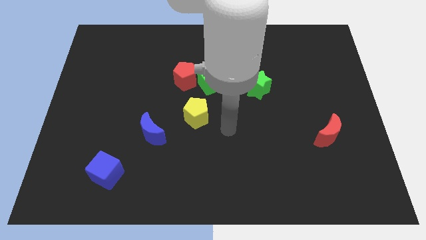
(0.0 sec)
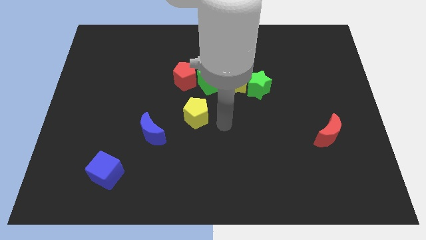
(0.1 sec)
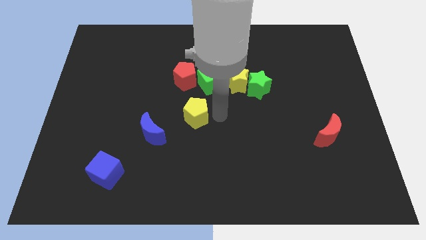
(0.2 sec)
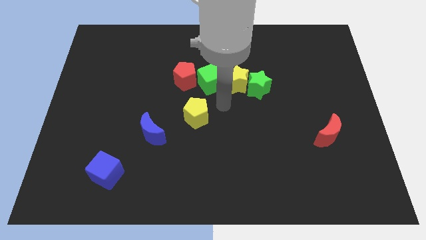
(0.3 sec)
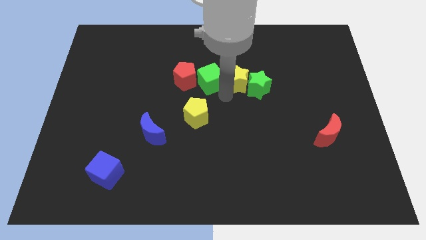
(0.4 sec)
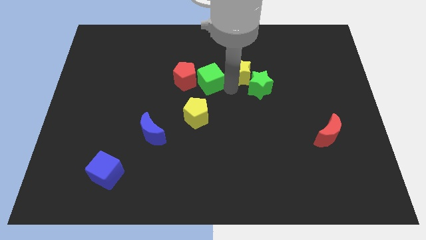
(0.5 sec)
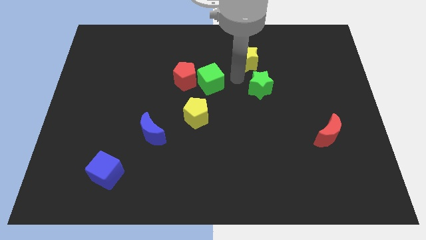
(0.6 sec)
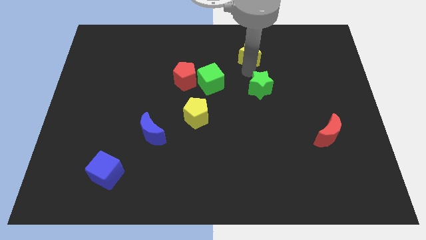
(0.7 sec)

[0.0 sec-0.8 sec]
move the green star away from the yellow star

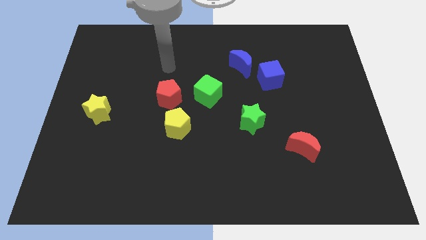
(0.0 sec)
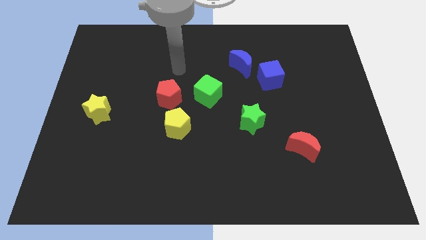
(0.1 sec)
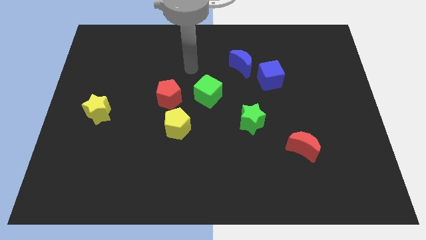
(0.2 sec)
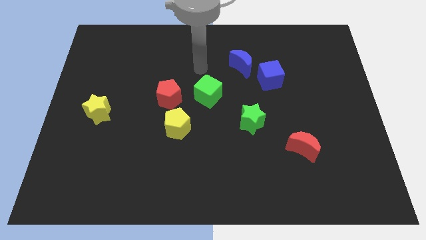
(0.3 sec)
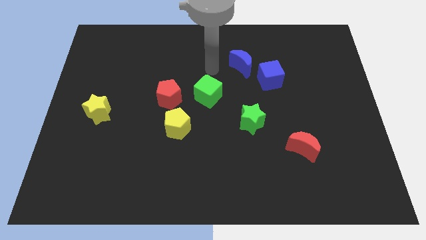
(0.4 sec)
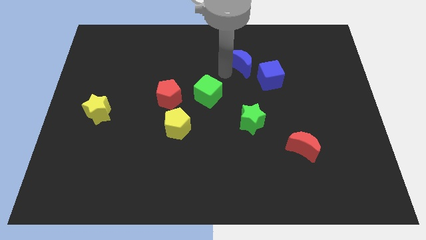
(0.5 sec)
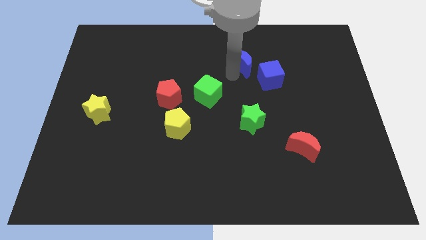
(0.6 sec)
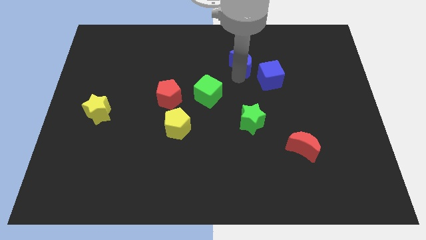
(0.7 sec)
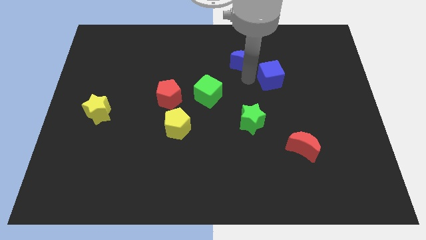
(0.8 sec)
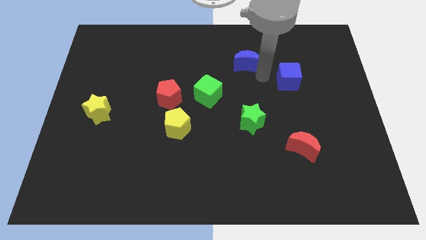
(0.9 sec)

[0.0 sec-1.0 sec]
pull the blue moon apart from the blue cube

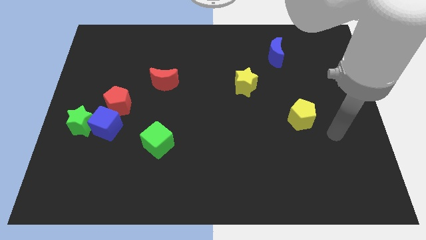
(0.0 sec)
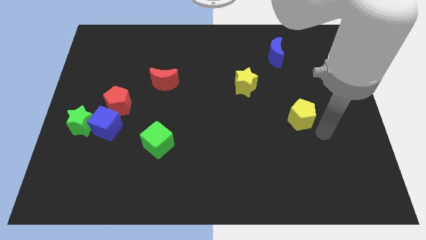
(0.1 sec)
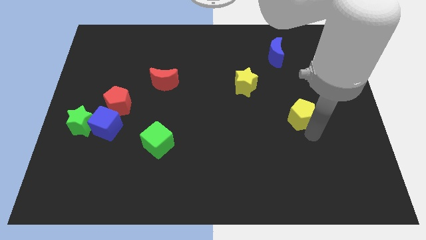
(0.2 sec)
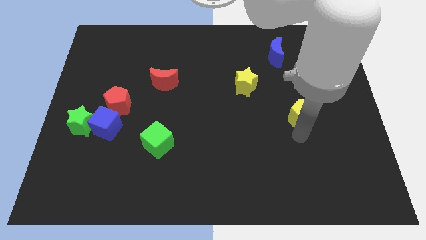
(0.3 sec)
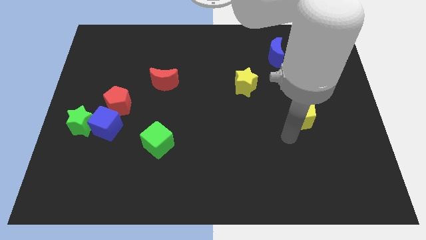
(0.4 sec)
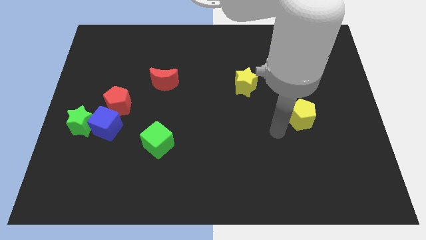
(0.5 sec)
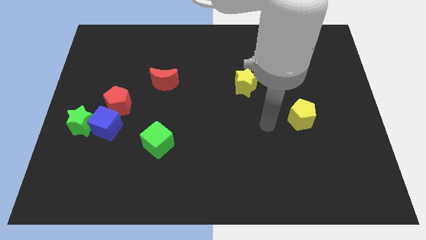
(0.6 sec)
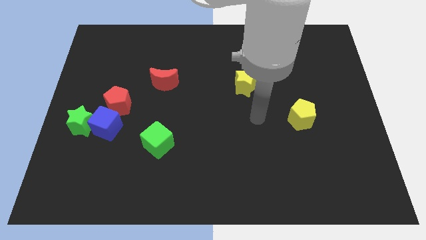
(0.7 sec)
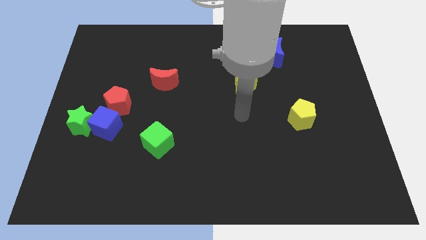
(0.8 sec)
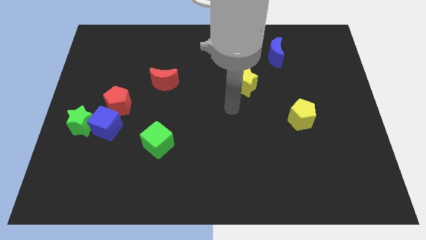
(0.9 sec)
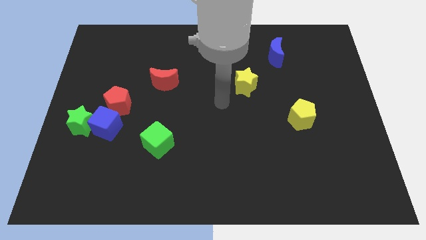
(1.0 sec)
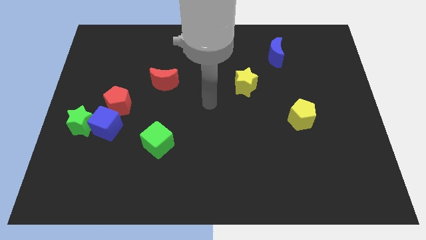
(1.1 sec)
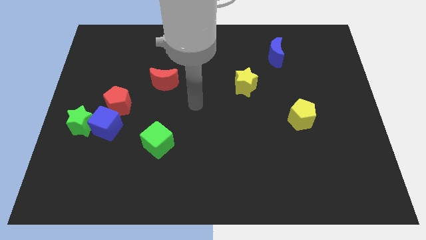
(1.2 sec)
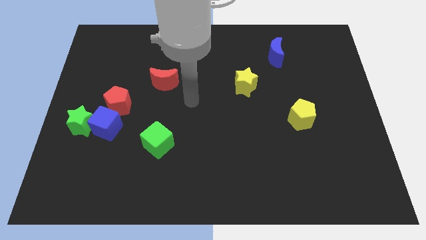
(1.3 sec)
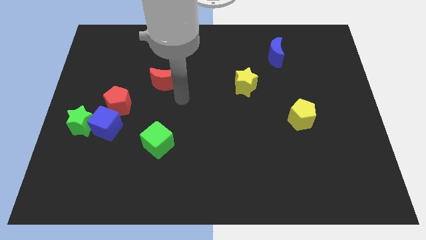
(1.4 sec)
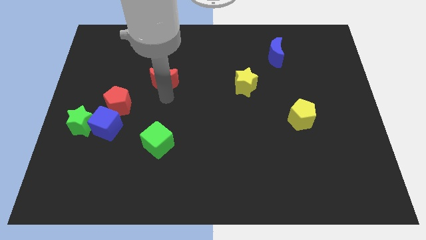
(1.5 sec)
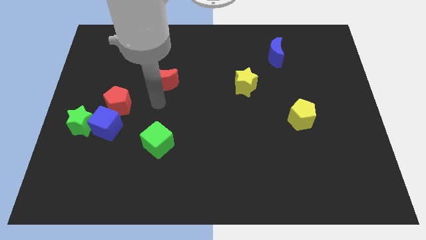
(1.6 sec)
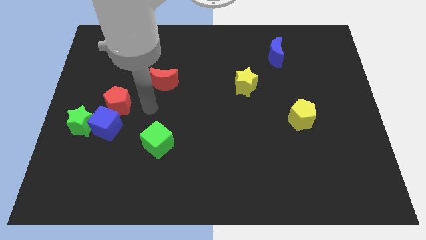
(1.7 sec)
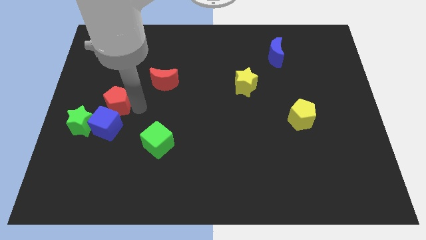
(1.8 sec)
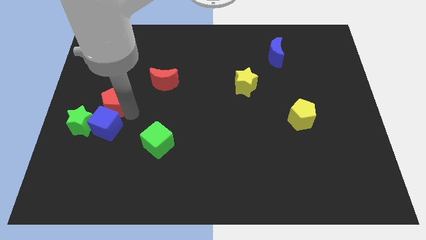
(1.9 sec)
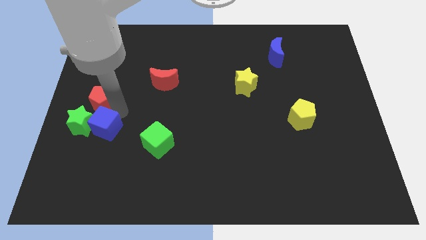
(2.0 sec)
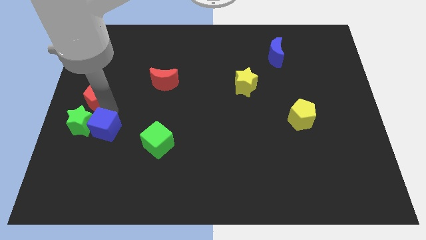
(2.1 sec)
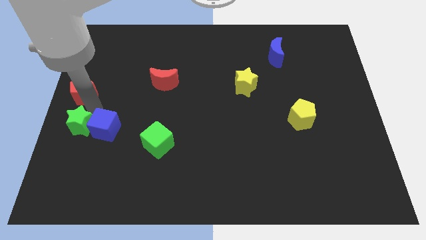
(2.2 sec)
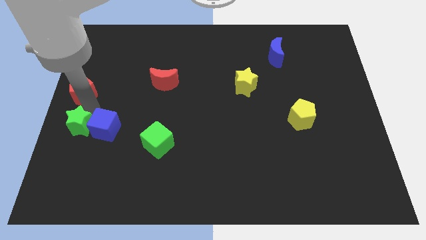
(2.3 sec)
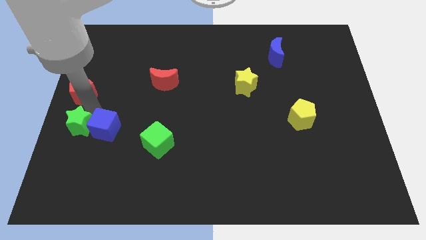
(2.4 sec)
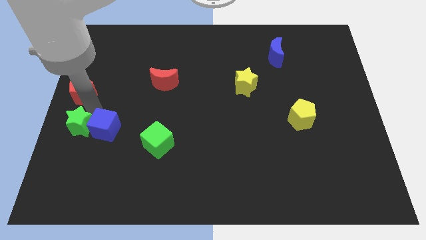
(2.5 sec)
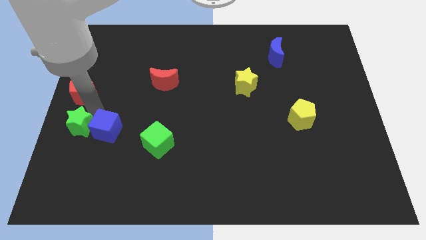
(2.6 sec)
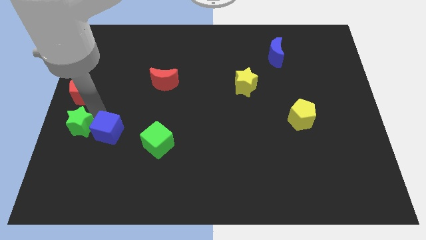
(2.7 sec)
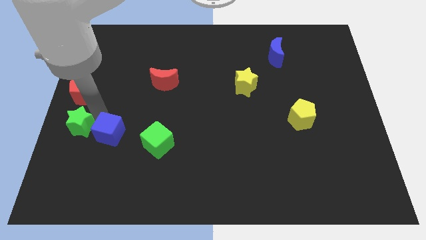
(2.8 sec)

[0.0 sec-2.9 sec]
separate the blue cube from the green star and red pentagon

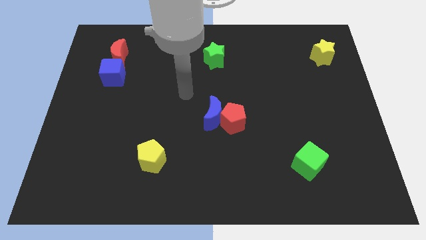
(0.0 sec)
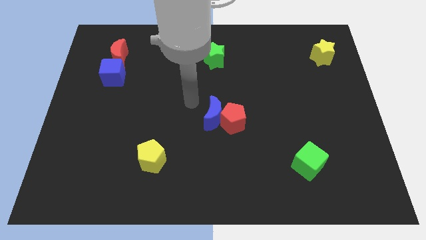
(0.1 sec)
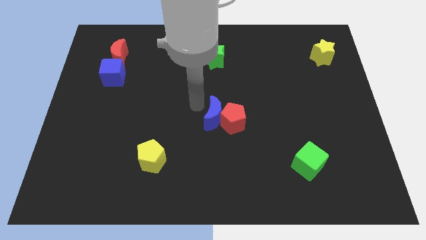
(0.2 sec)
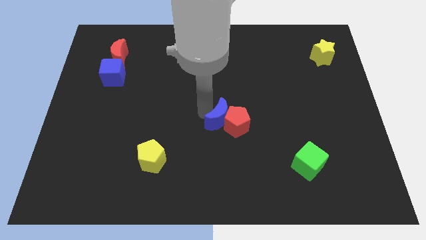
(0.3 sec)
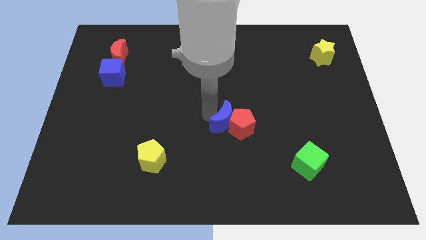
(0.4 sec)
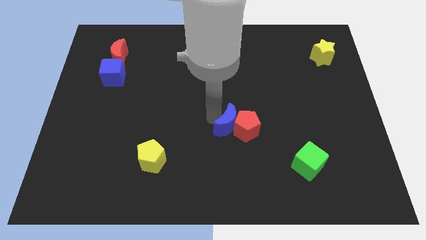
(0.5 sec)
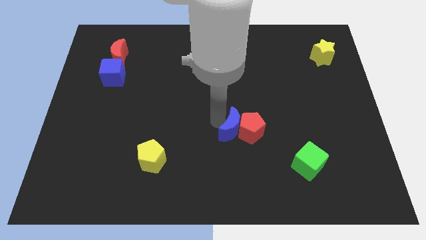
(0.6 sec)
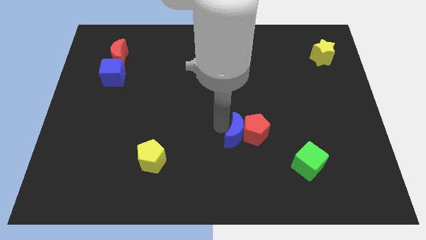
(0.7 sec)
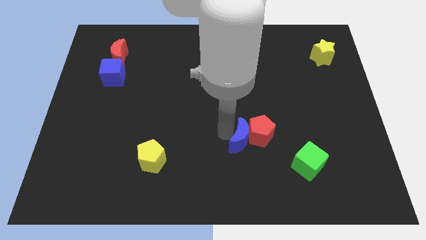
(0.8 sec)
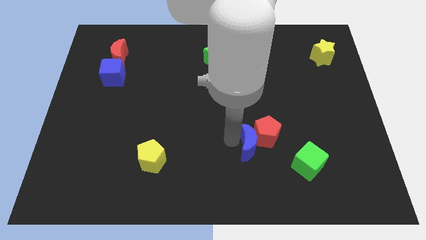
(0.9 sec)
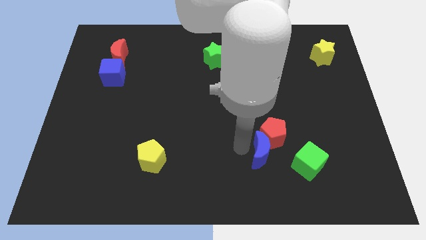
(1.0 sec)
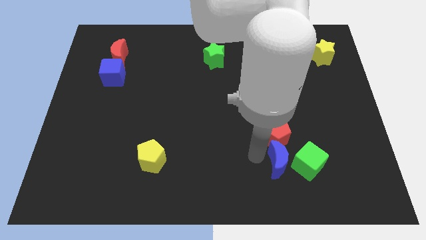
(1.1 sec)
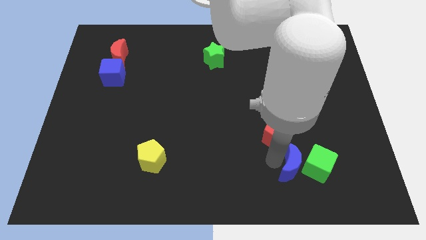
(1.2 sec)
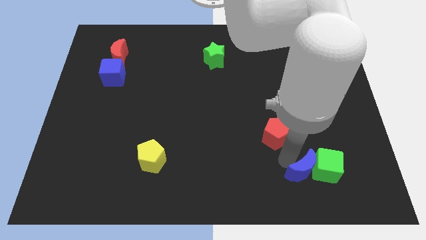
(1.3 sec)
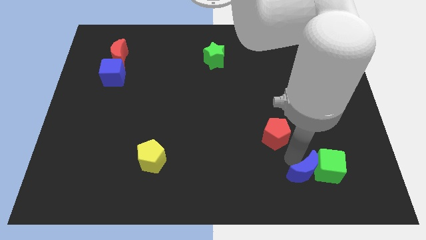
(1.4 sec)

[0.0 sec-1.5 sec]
pull the red pentagon apart from the blue moon

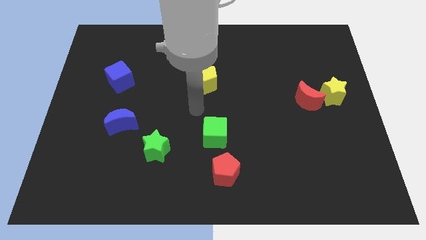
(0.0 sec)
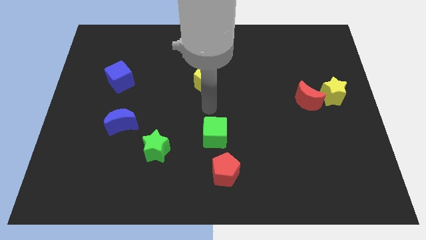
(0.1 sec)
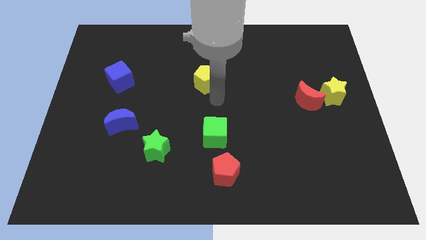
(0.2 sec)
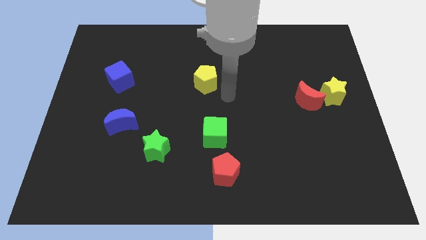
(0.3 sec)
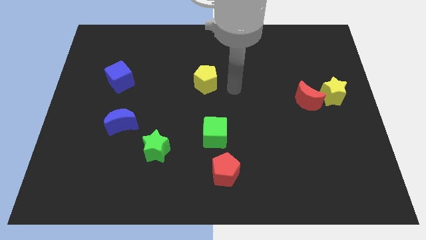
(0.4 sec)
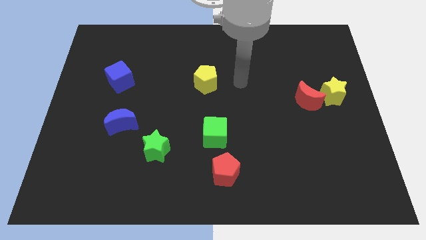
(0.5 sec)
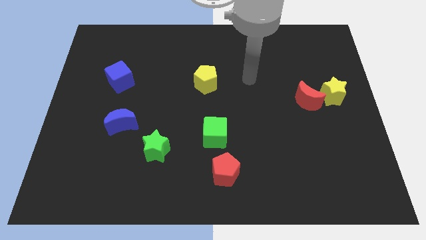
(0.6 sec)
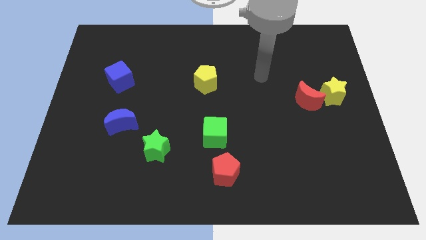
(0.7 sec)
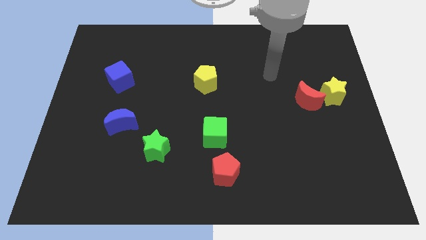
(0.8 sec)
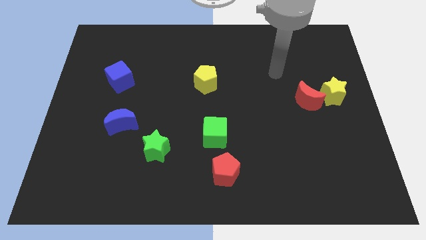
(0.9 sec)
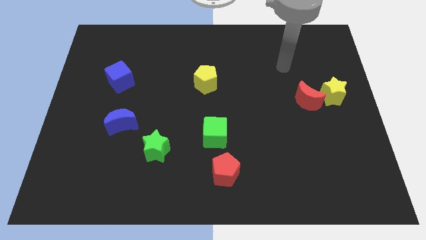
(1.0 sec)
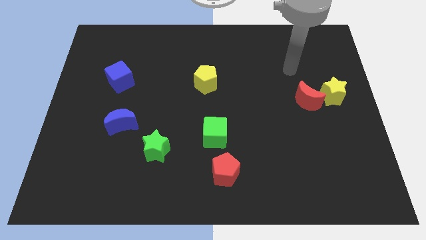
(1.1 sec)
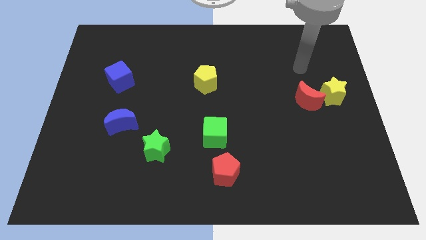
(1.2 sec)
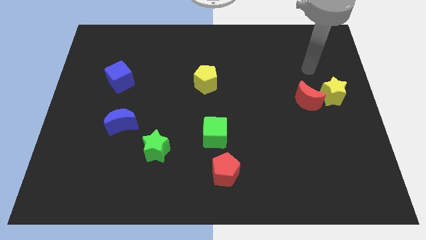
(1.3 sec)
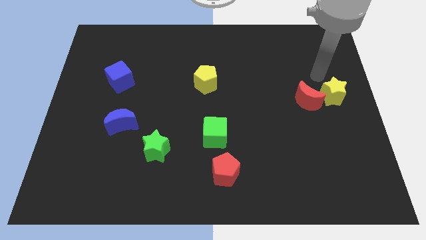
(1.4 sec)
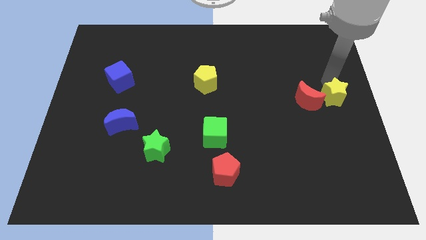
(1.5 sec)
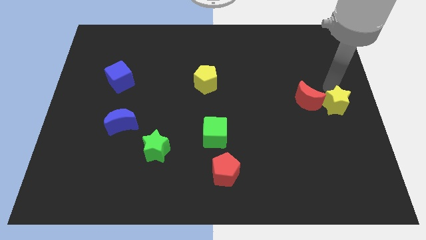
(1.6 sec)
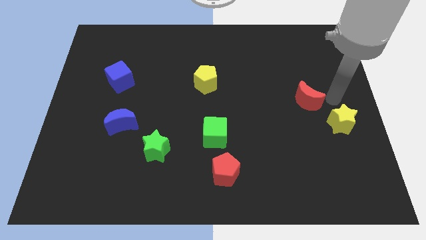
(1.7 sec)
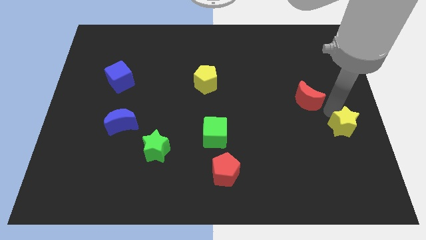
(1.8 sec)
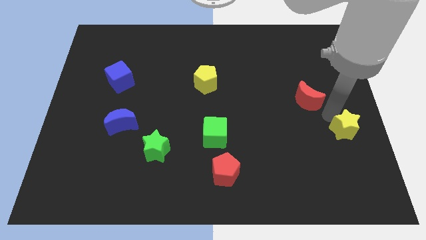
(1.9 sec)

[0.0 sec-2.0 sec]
move the red moon away from the yellow star

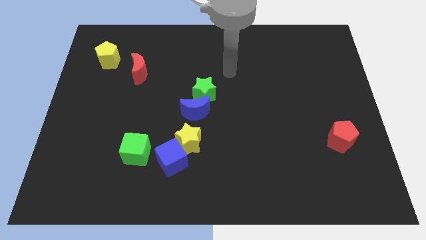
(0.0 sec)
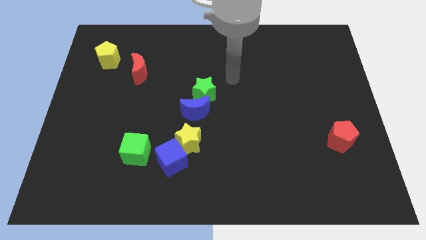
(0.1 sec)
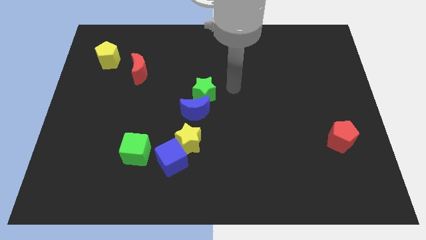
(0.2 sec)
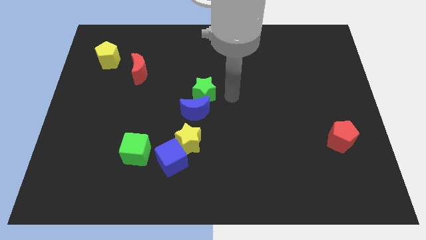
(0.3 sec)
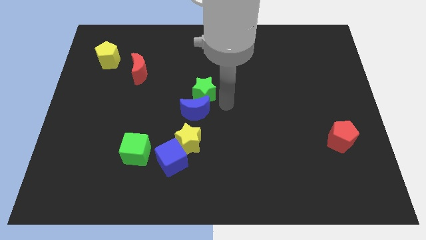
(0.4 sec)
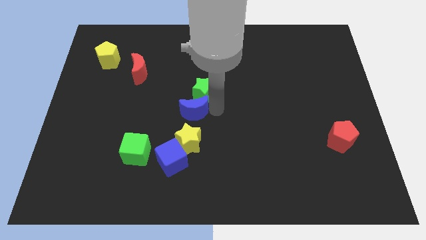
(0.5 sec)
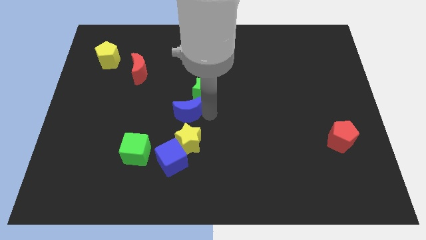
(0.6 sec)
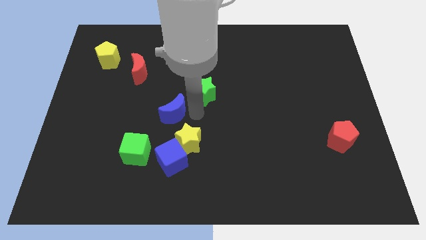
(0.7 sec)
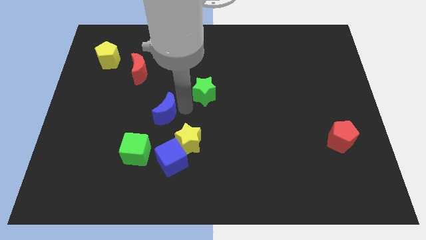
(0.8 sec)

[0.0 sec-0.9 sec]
pull the green star apart from the blue moon

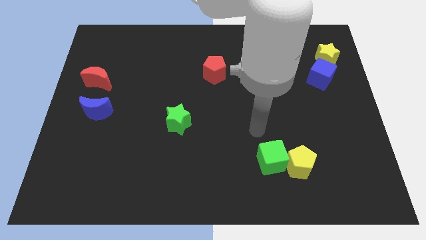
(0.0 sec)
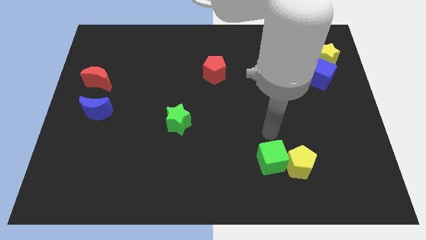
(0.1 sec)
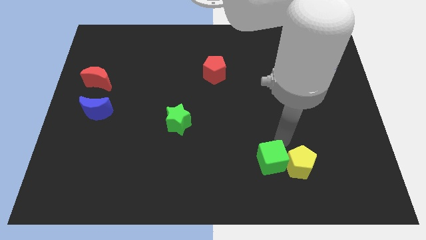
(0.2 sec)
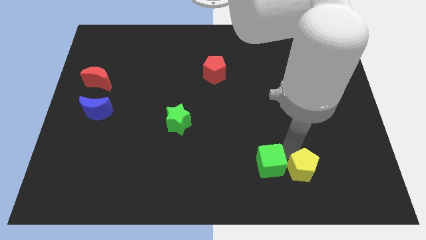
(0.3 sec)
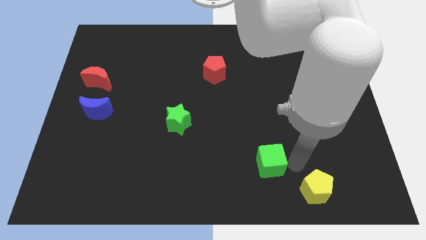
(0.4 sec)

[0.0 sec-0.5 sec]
pull the green cube apart from the yellow pentagon
